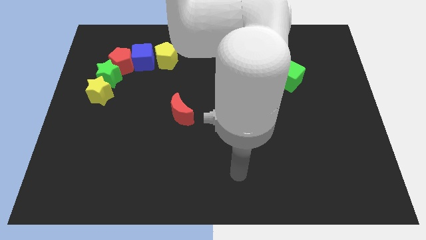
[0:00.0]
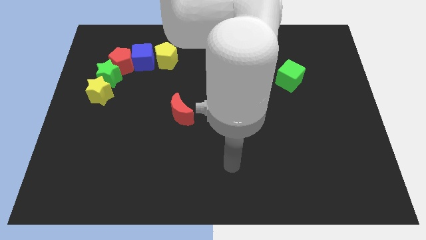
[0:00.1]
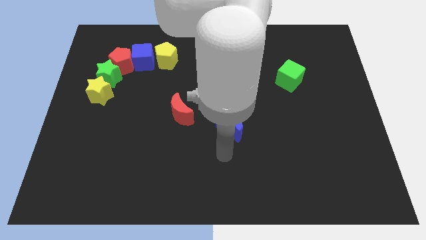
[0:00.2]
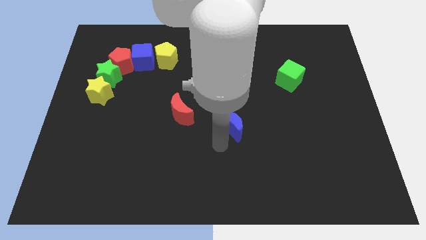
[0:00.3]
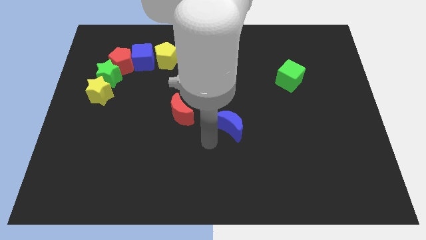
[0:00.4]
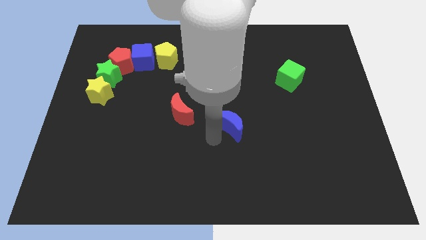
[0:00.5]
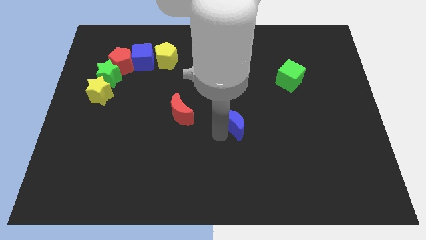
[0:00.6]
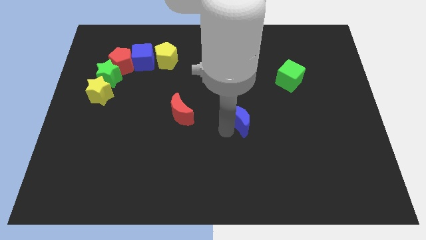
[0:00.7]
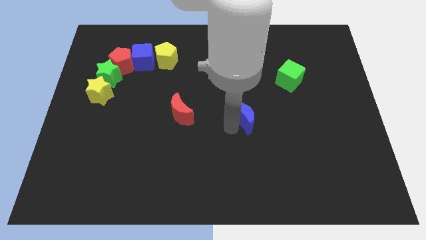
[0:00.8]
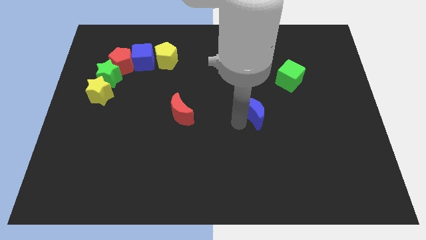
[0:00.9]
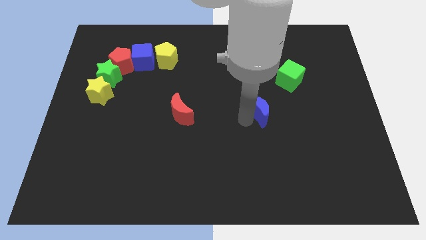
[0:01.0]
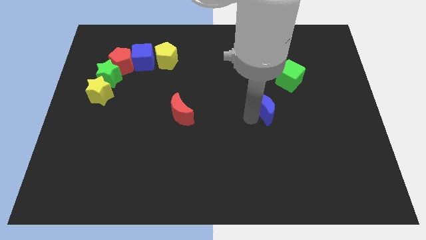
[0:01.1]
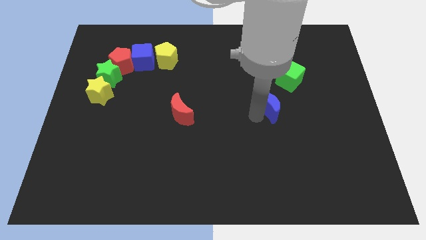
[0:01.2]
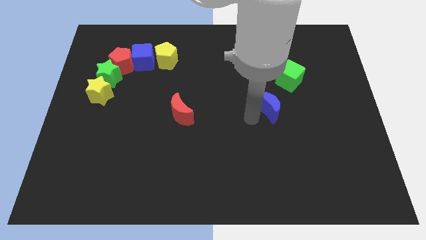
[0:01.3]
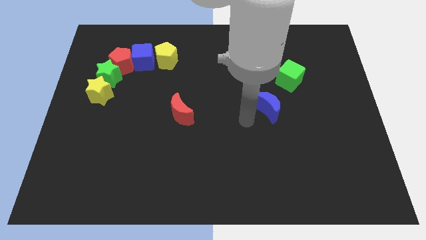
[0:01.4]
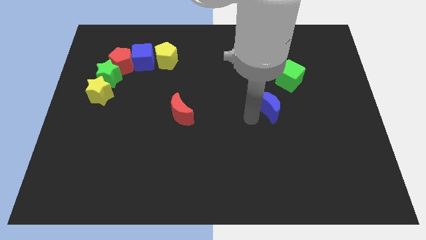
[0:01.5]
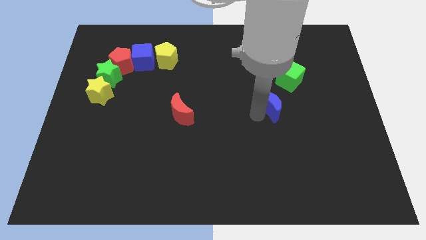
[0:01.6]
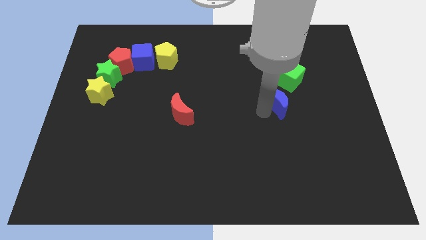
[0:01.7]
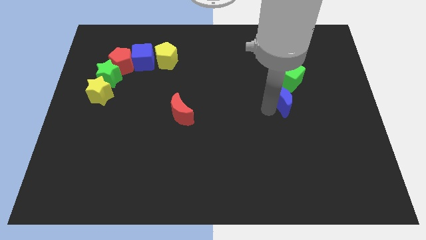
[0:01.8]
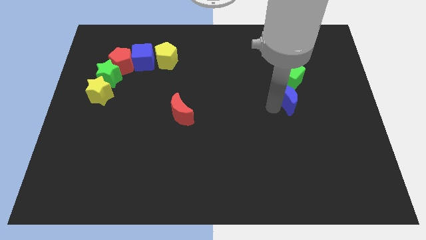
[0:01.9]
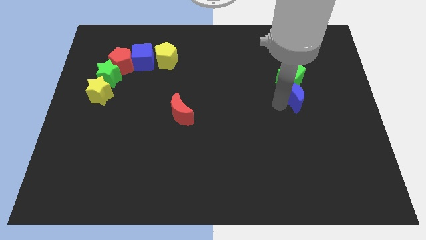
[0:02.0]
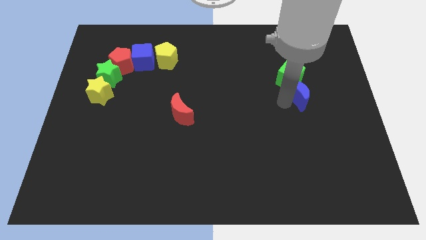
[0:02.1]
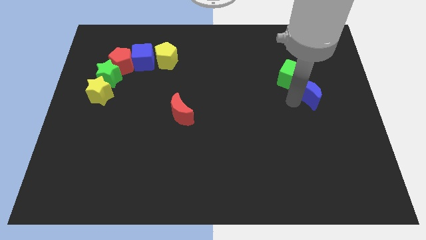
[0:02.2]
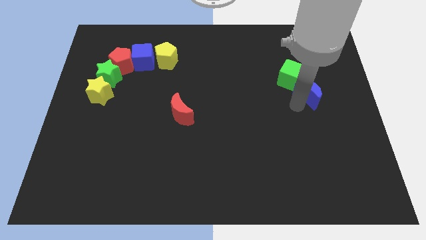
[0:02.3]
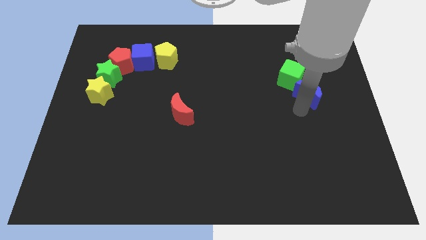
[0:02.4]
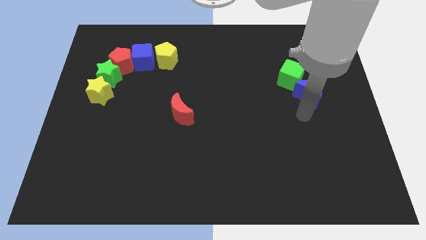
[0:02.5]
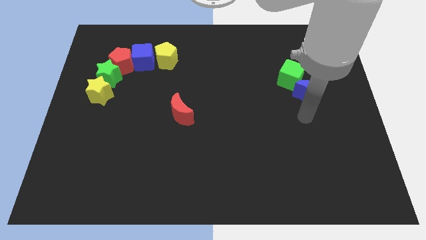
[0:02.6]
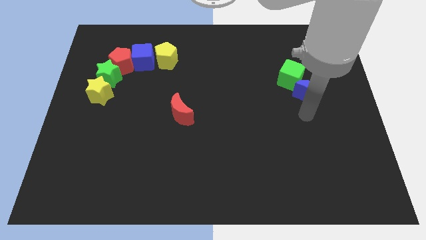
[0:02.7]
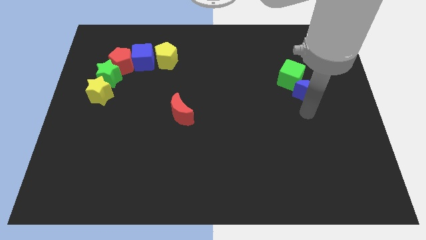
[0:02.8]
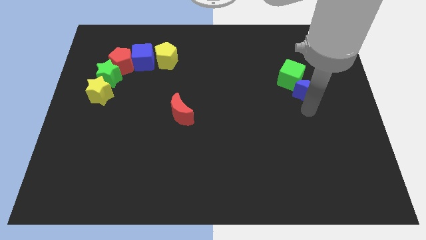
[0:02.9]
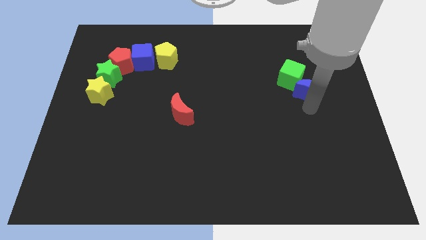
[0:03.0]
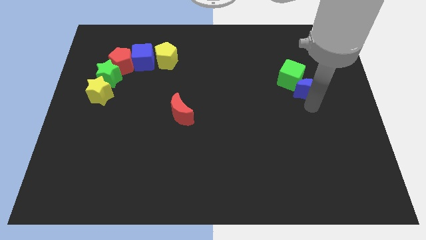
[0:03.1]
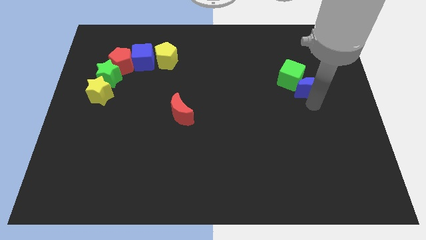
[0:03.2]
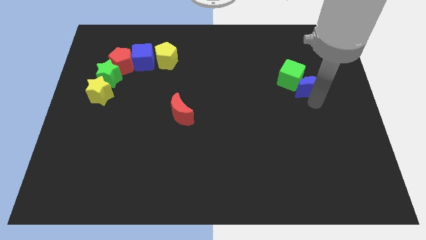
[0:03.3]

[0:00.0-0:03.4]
move the blue moon up and right diagonally

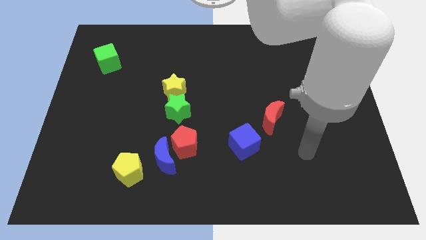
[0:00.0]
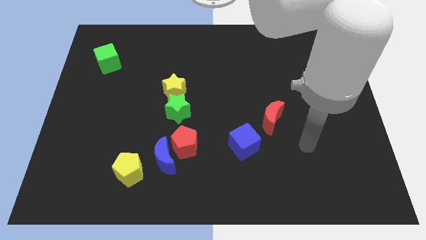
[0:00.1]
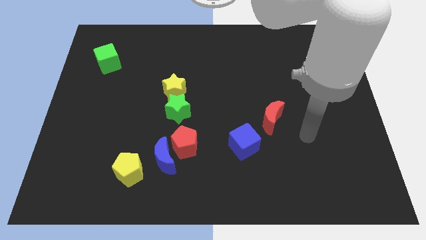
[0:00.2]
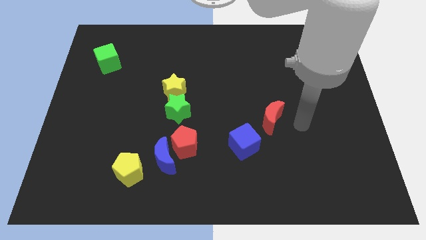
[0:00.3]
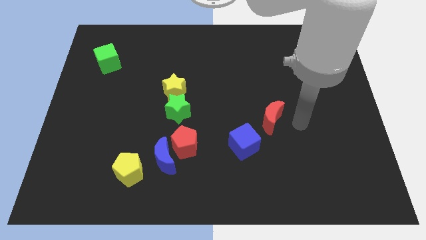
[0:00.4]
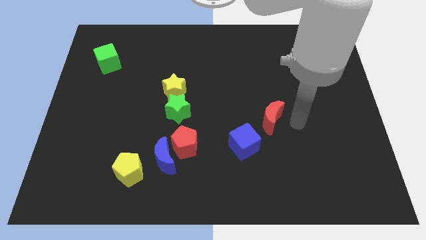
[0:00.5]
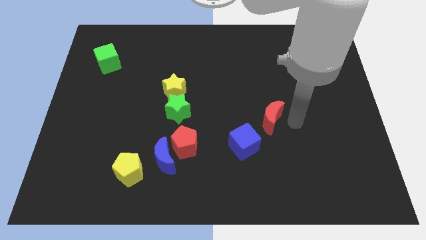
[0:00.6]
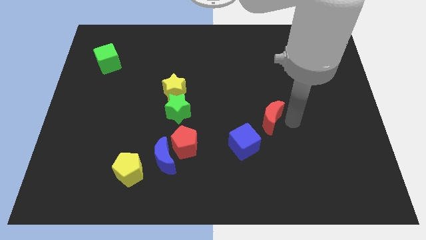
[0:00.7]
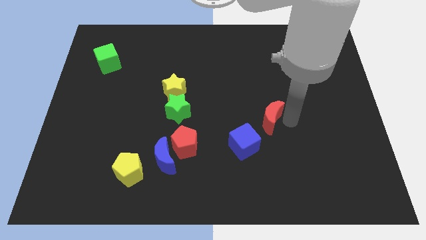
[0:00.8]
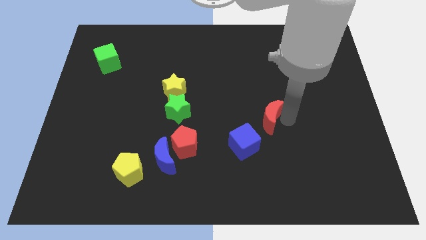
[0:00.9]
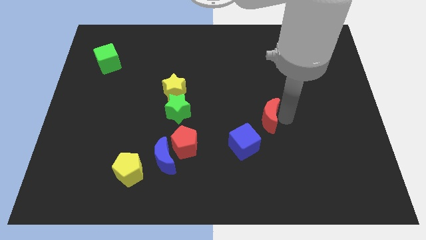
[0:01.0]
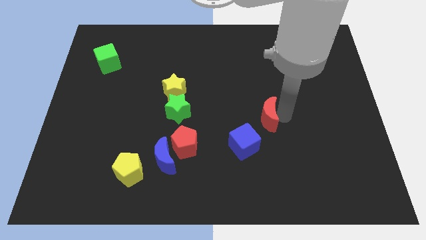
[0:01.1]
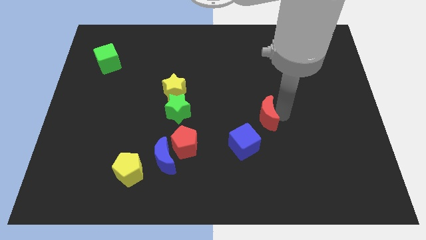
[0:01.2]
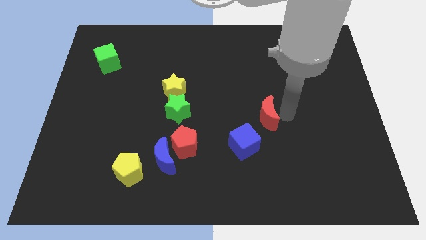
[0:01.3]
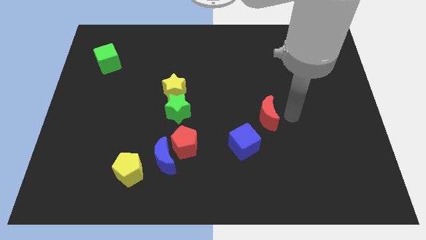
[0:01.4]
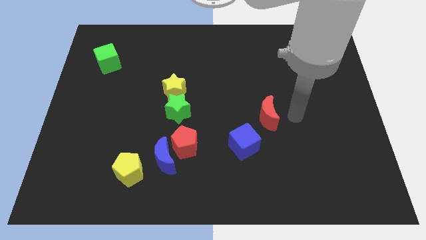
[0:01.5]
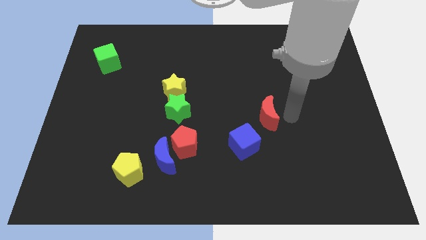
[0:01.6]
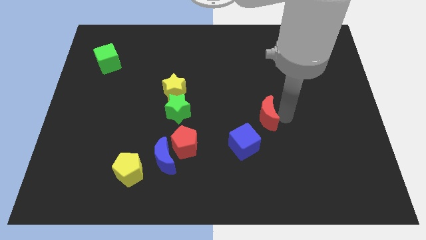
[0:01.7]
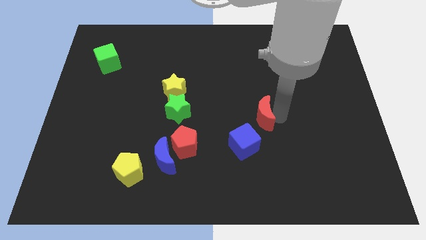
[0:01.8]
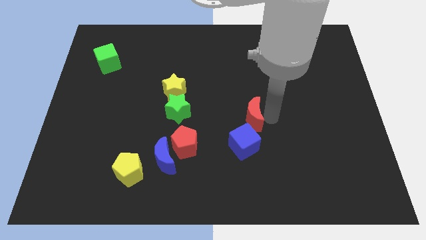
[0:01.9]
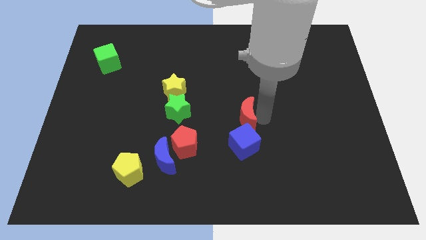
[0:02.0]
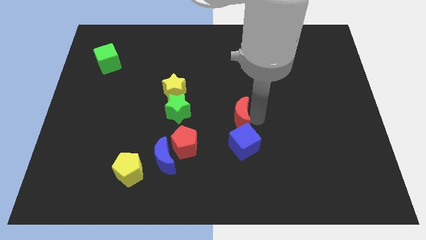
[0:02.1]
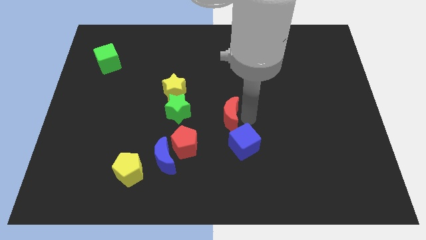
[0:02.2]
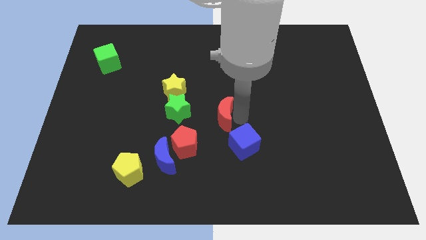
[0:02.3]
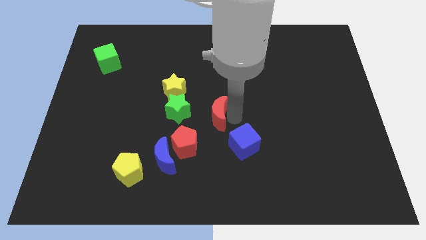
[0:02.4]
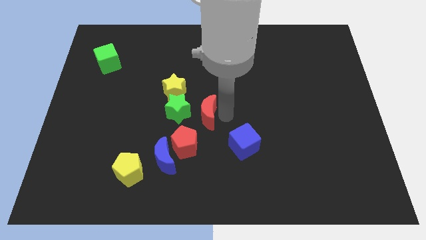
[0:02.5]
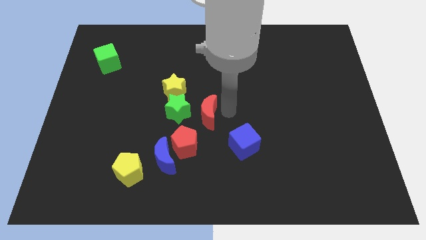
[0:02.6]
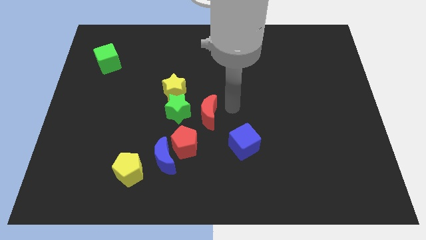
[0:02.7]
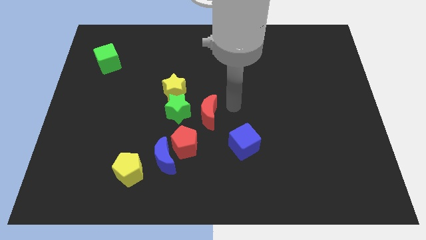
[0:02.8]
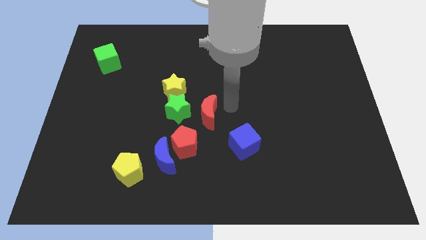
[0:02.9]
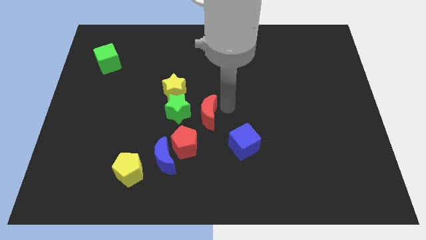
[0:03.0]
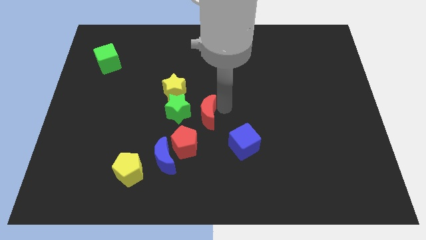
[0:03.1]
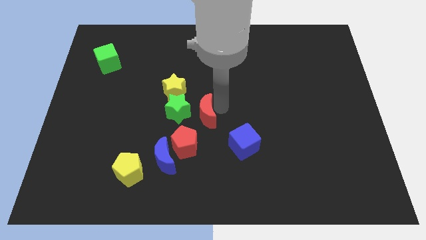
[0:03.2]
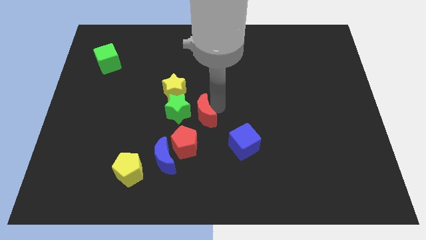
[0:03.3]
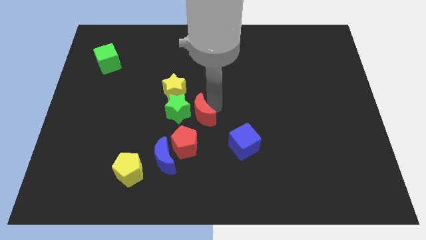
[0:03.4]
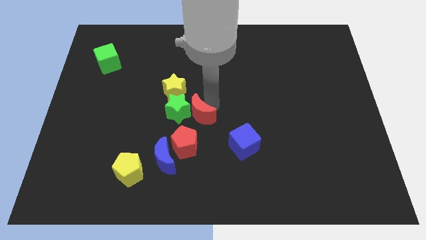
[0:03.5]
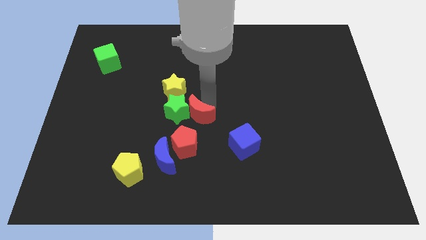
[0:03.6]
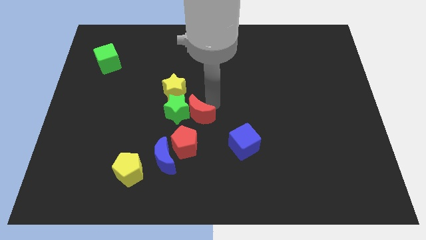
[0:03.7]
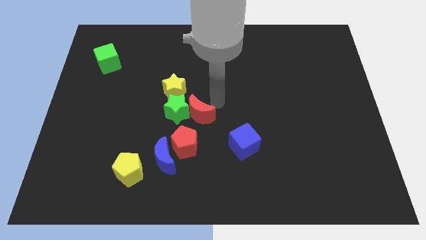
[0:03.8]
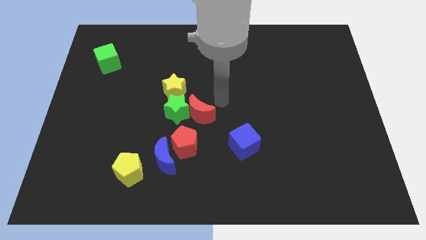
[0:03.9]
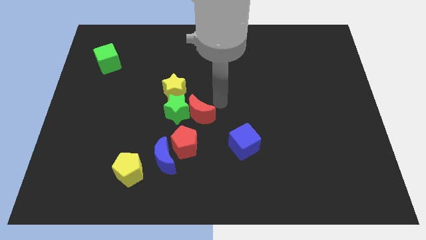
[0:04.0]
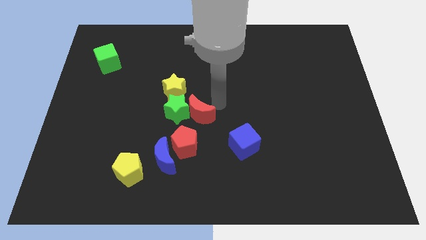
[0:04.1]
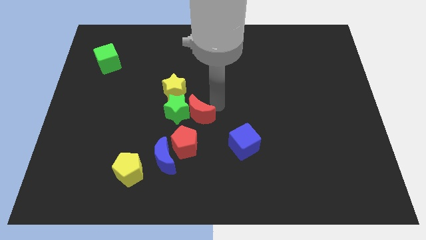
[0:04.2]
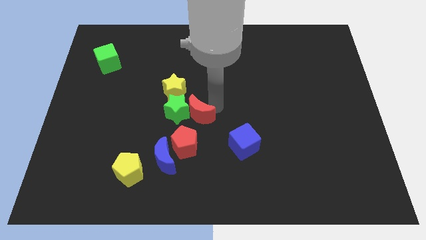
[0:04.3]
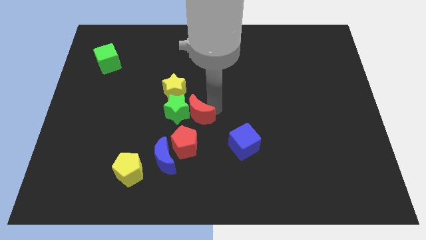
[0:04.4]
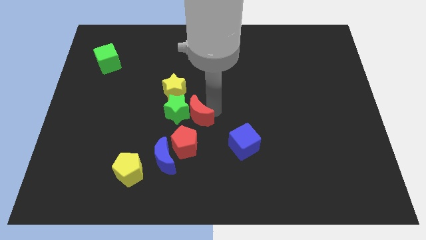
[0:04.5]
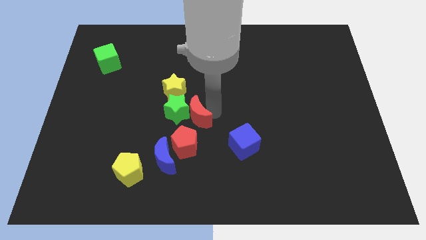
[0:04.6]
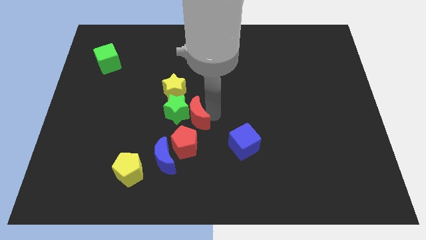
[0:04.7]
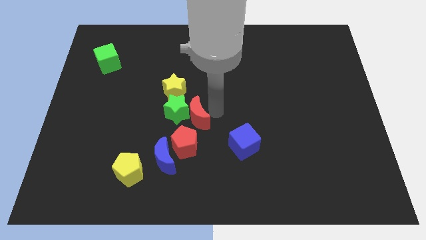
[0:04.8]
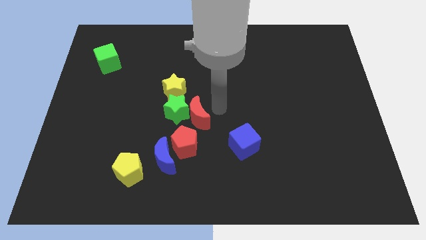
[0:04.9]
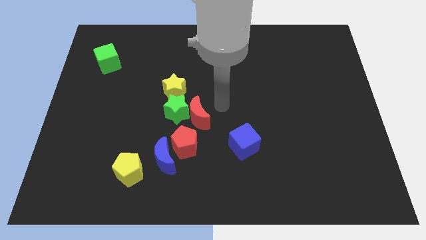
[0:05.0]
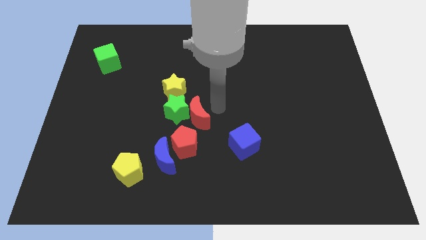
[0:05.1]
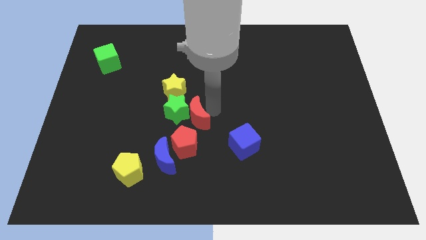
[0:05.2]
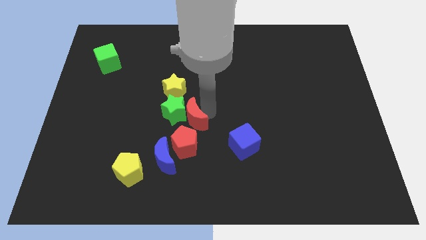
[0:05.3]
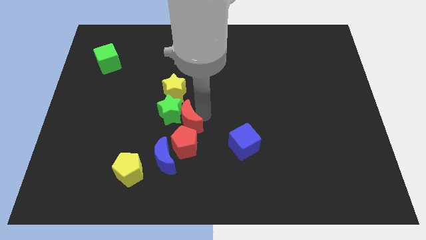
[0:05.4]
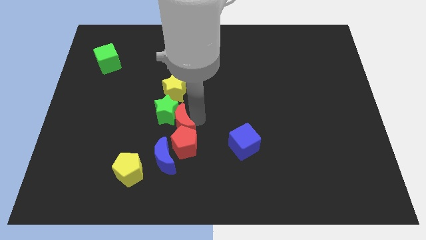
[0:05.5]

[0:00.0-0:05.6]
slide the red moon to the left
